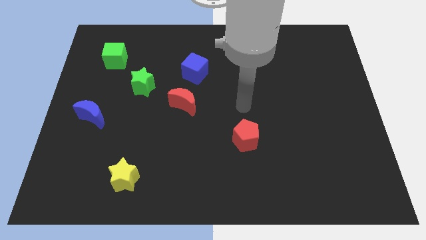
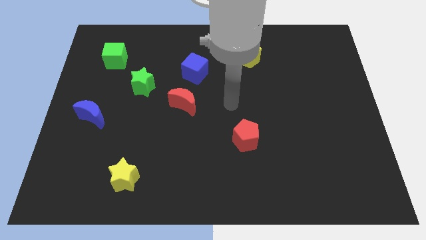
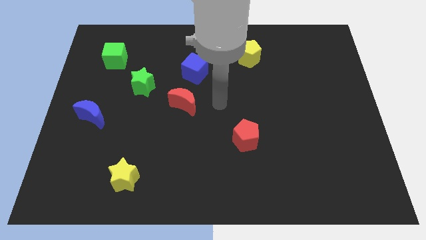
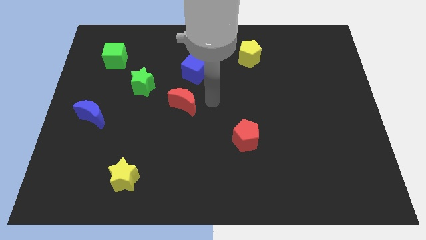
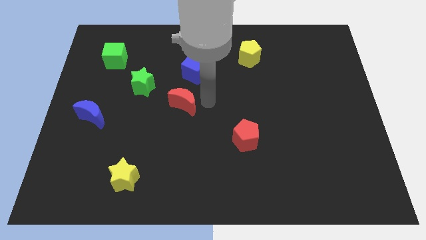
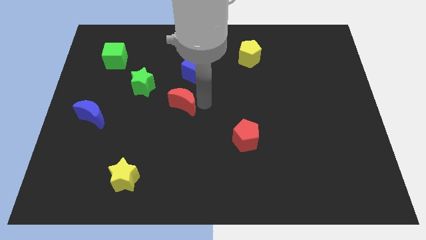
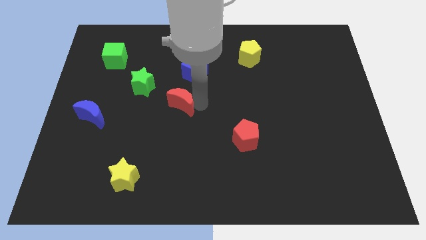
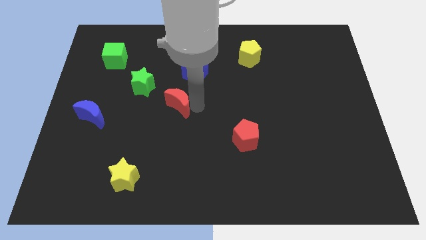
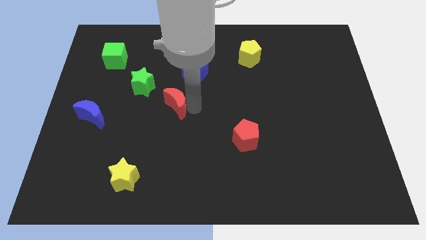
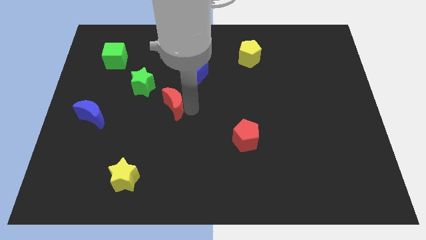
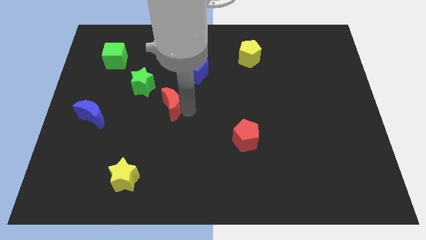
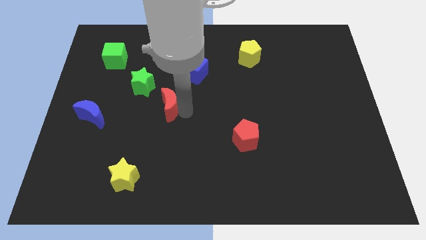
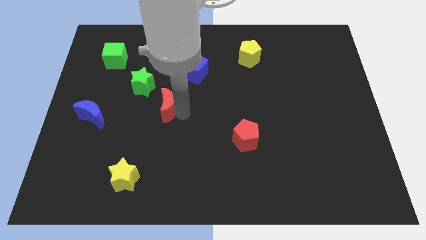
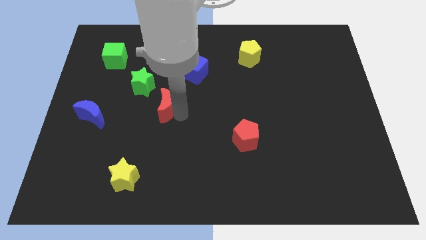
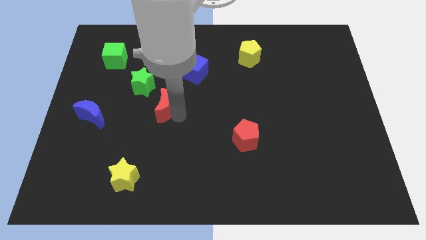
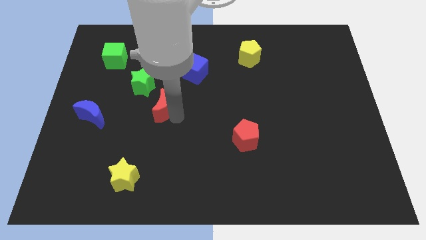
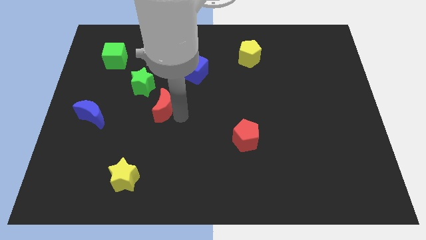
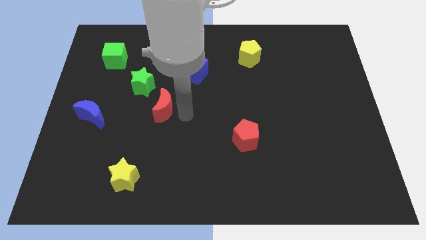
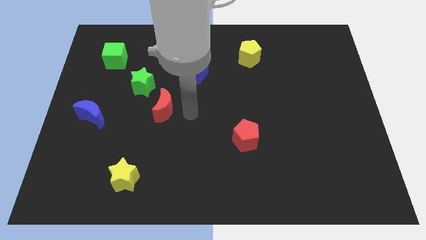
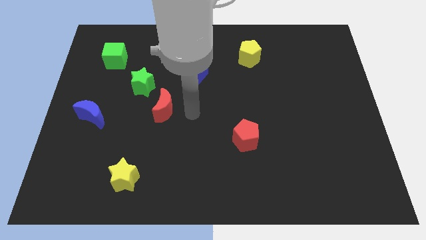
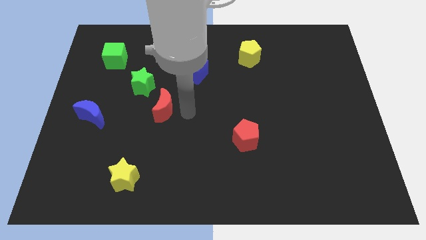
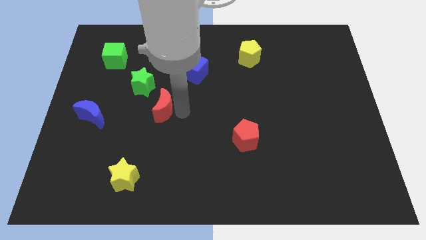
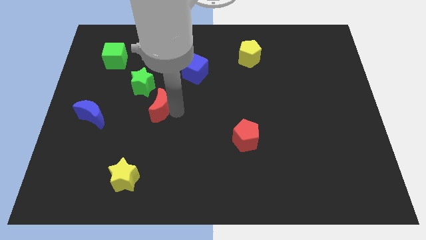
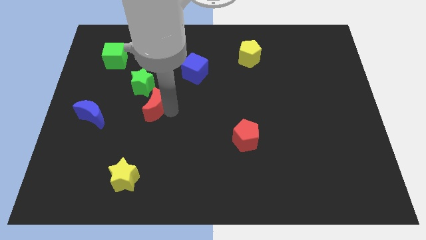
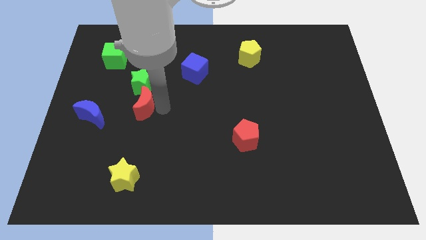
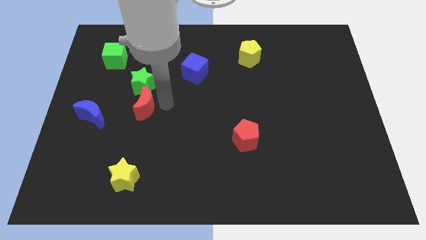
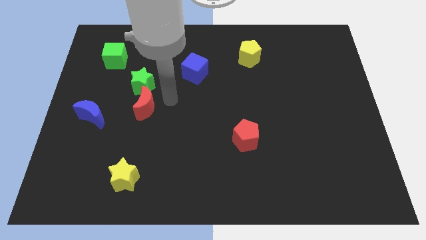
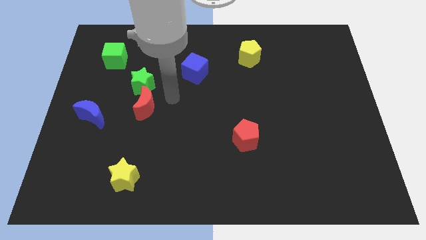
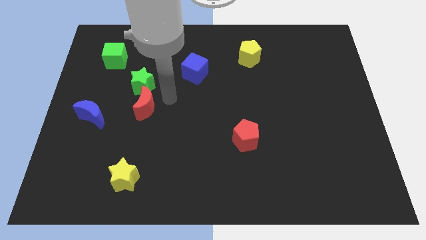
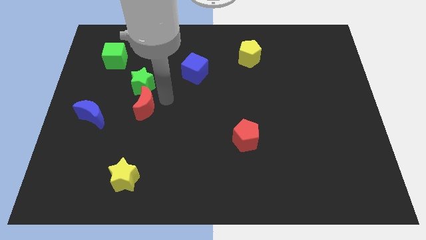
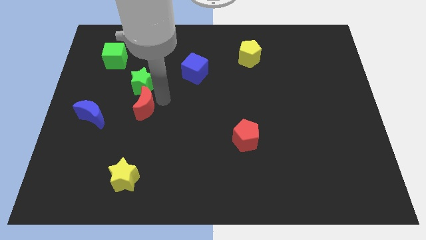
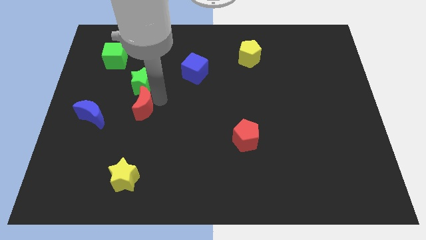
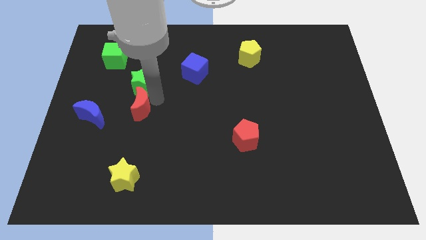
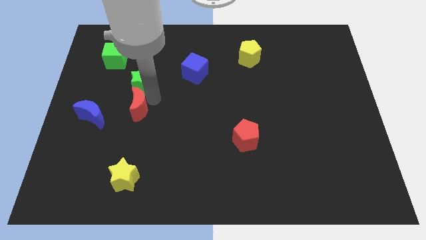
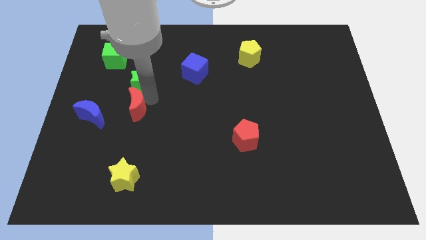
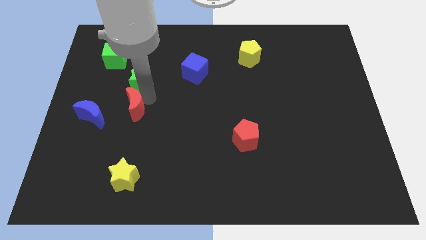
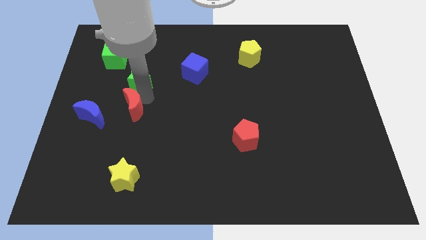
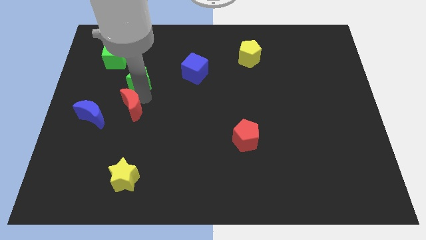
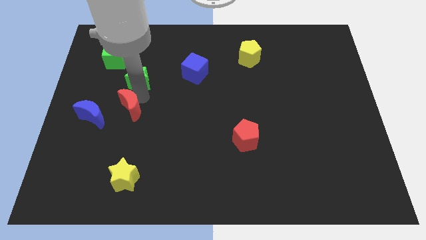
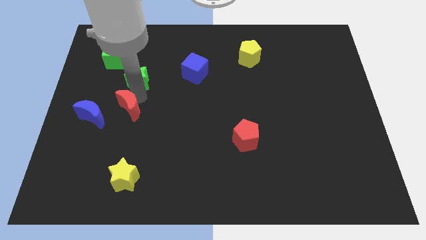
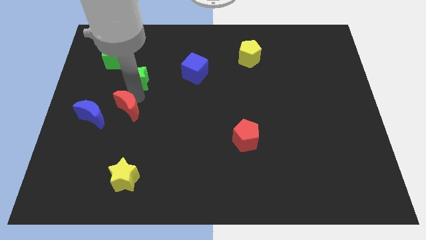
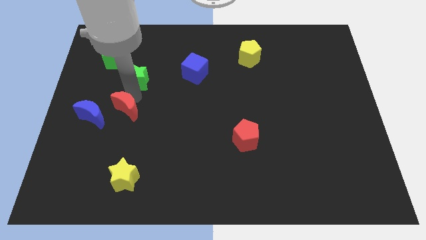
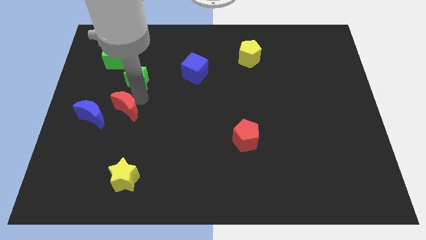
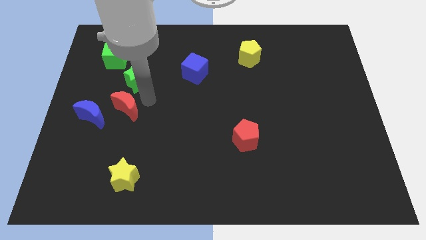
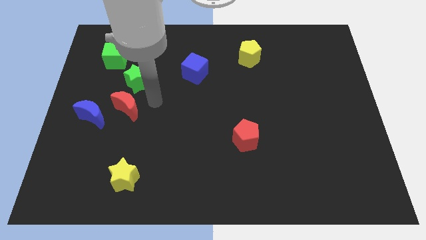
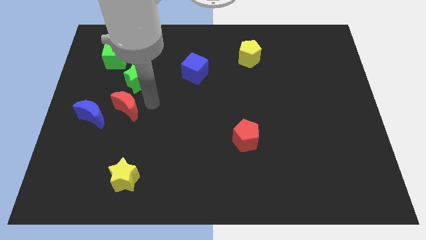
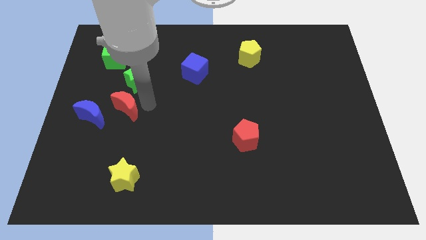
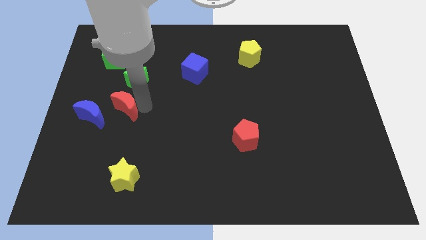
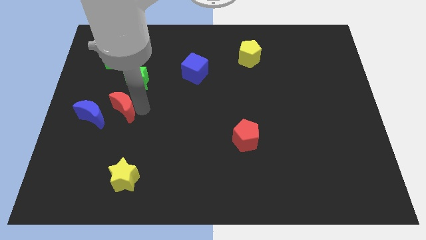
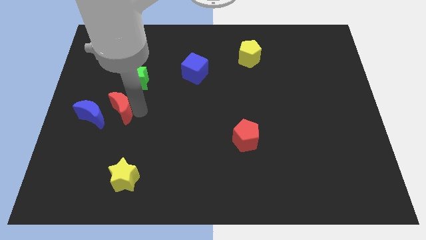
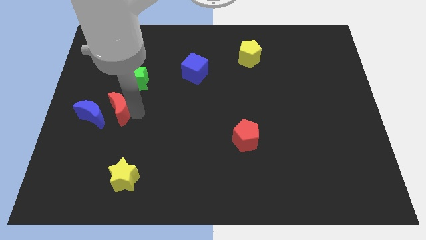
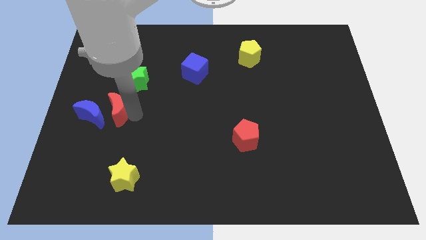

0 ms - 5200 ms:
put the red moon next to the blue moon

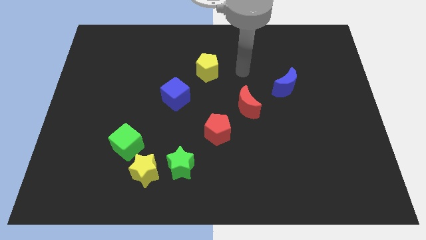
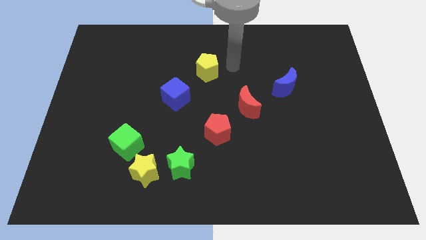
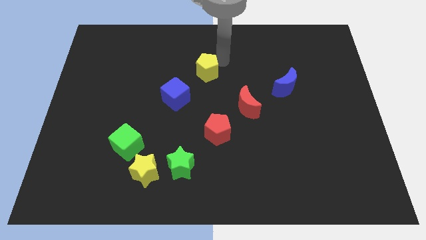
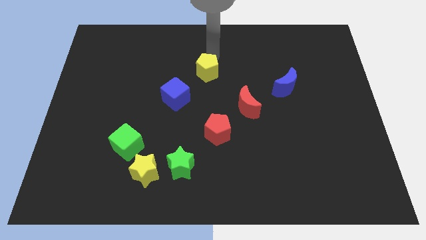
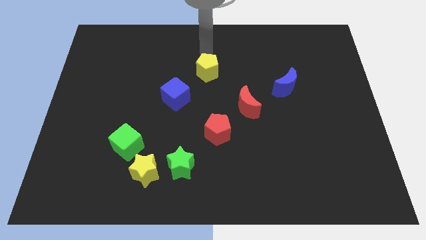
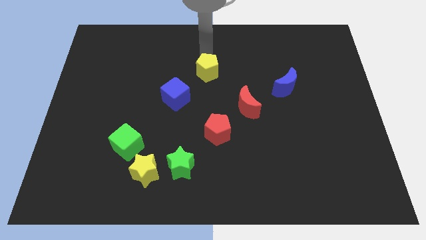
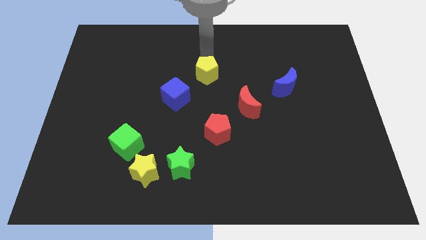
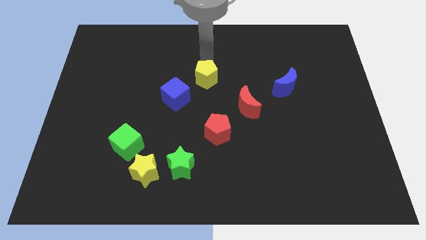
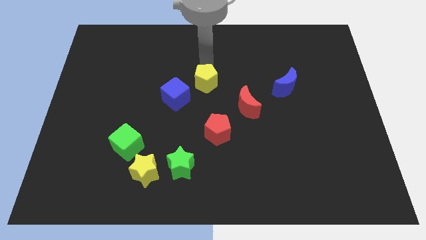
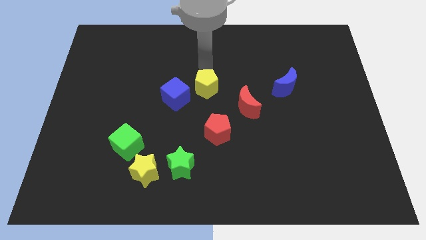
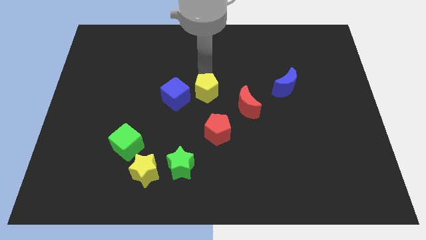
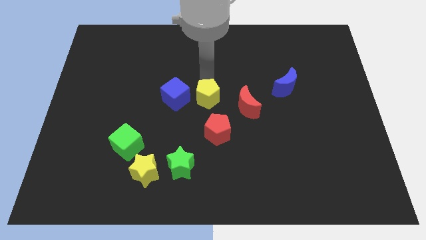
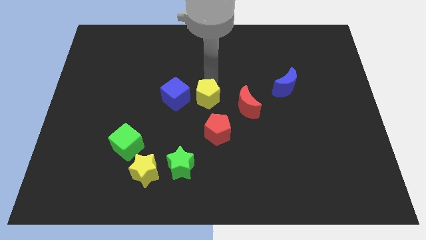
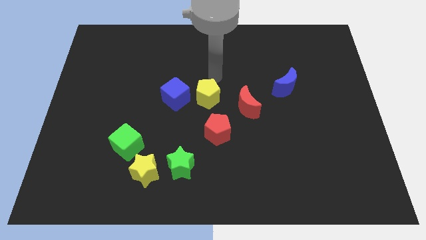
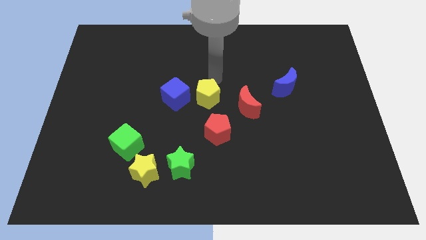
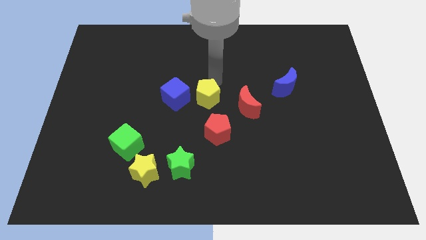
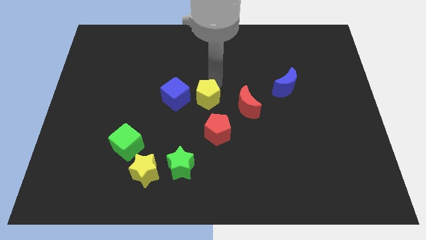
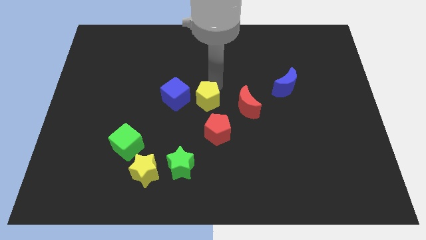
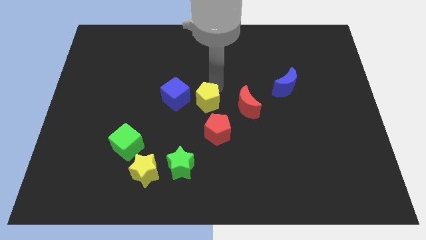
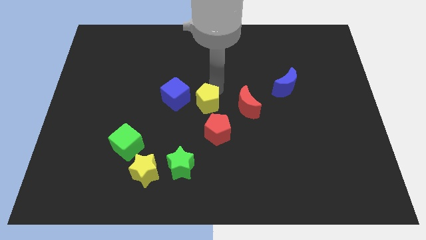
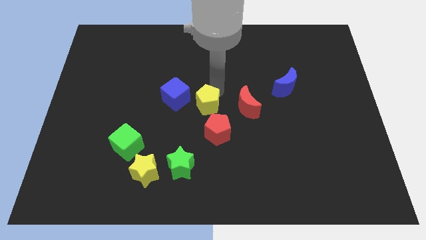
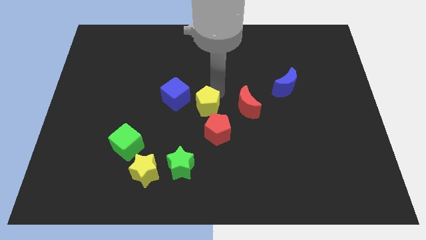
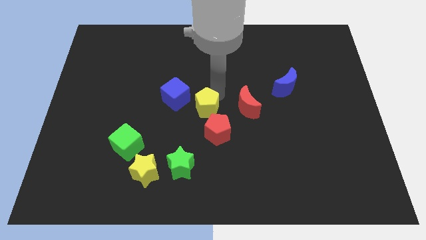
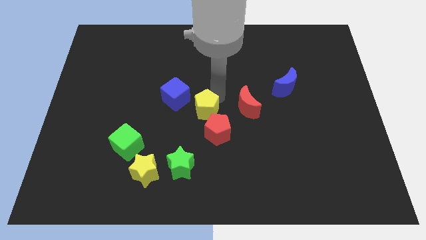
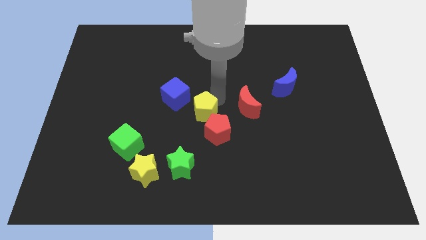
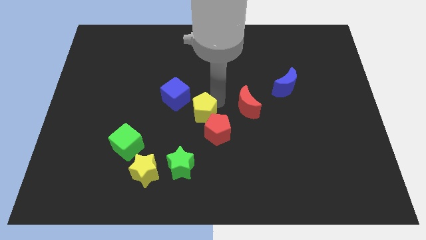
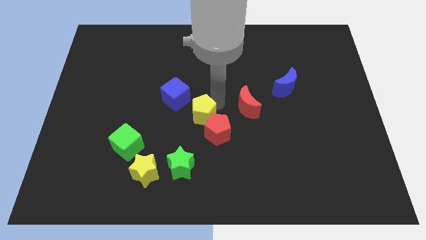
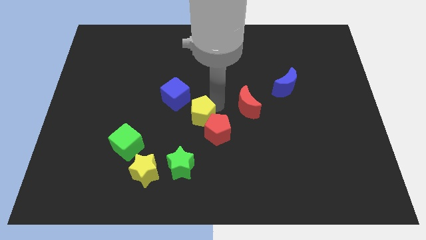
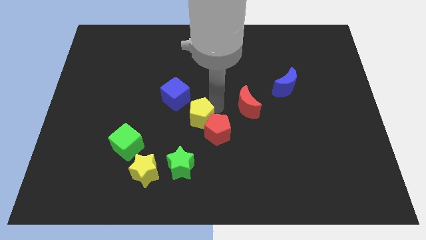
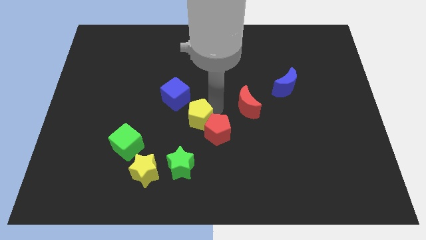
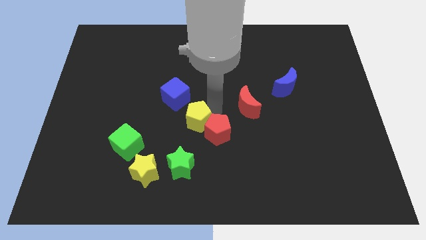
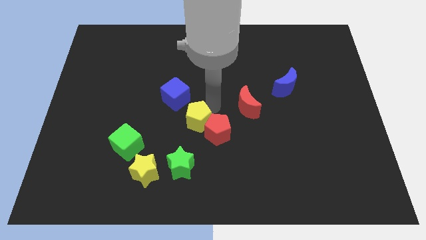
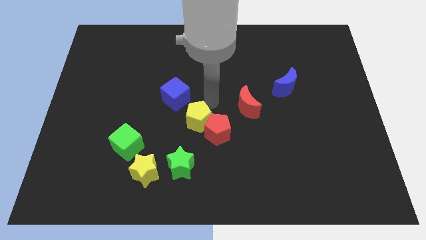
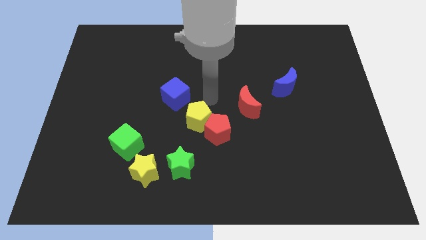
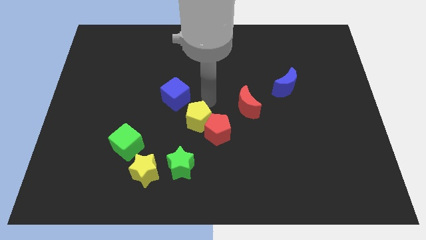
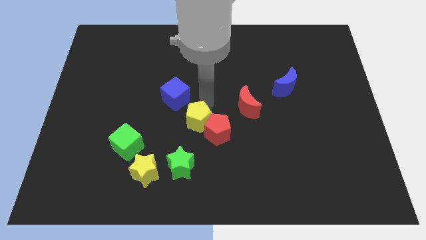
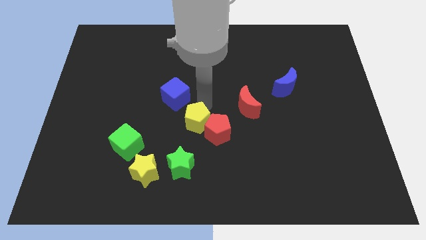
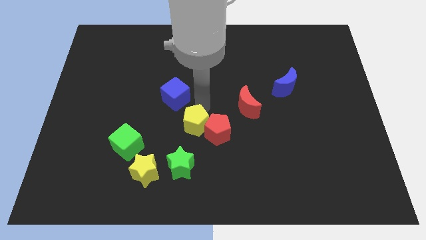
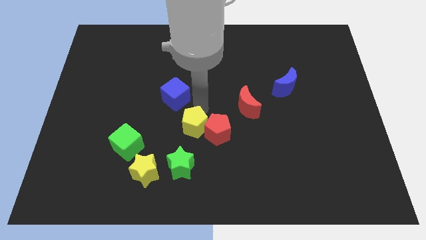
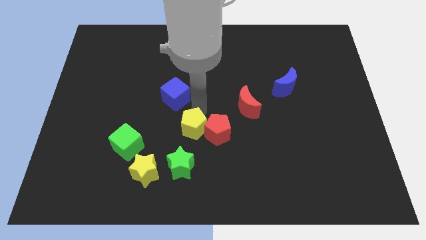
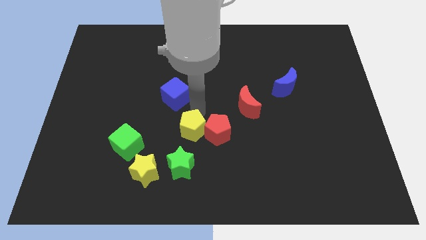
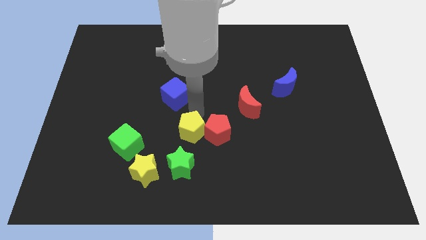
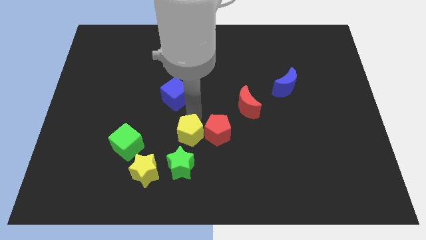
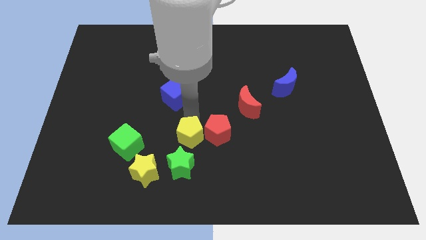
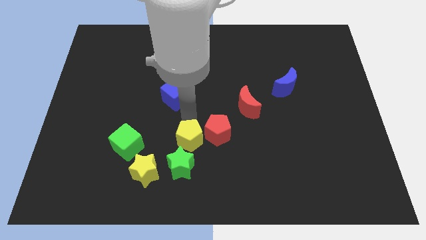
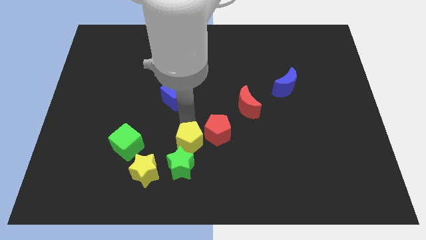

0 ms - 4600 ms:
push the yellow pentagon next to the green star
